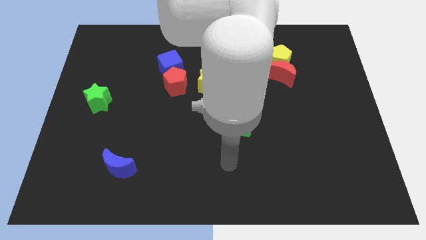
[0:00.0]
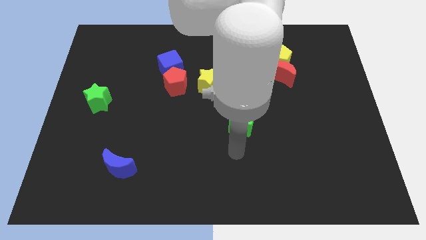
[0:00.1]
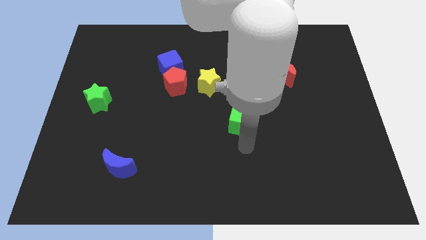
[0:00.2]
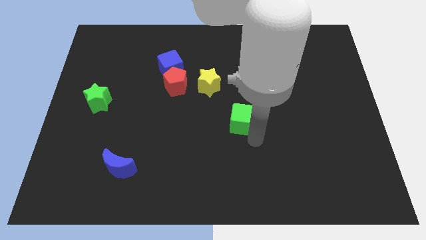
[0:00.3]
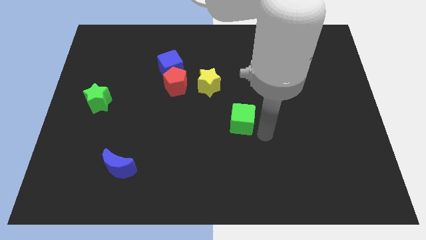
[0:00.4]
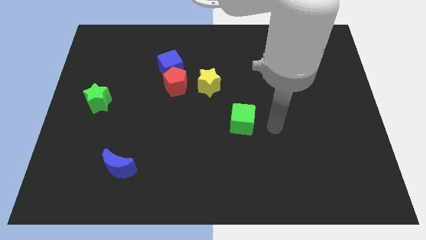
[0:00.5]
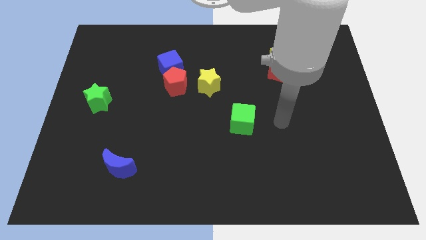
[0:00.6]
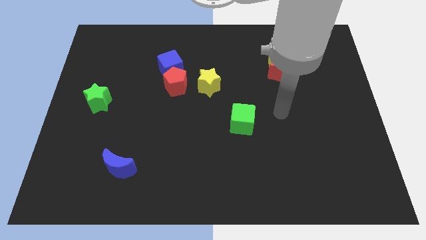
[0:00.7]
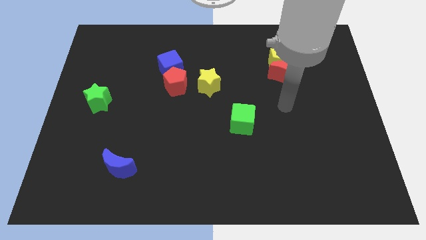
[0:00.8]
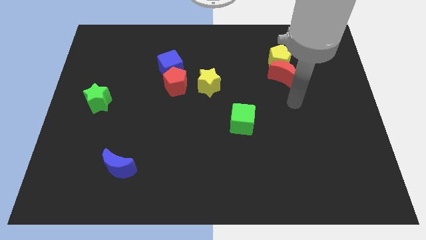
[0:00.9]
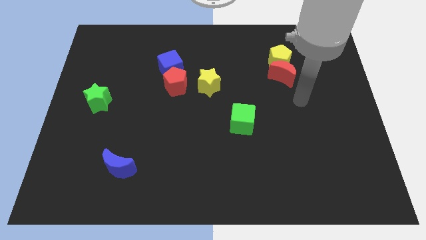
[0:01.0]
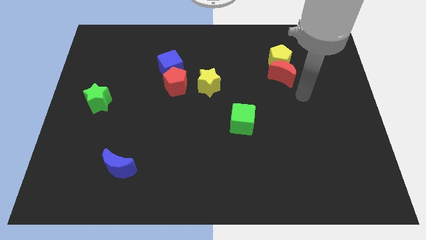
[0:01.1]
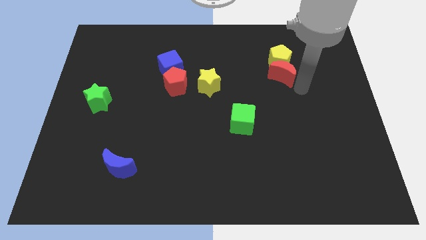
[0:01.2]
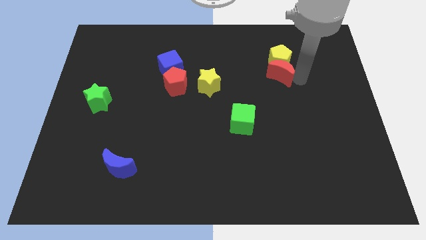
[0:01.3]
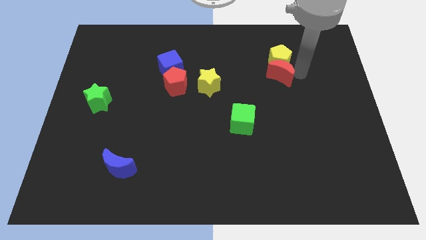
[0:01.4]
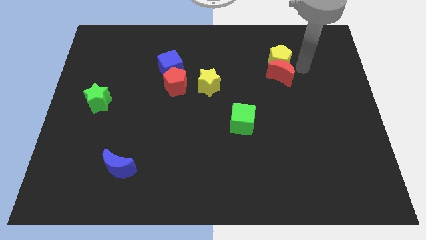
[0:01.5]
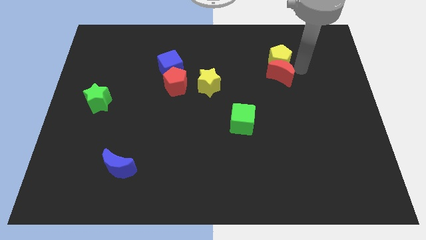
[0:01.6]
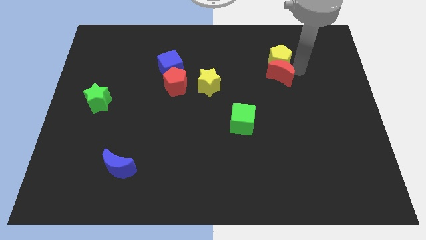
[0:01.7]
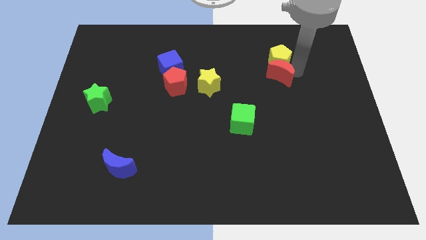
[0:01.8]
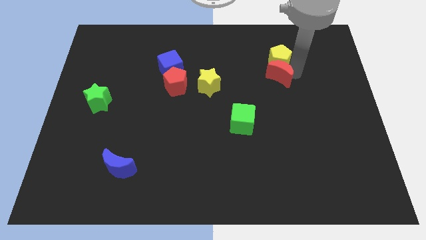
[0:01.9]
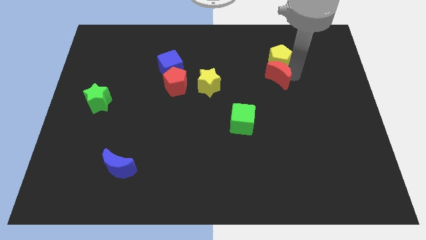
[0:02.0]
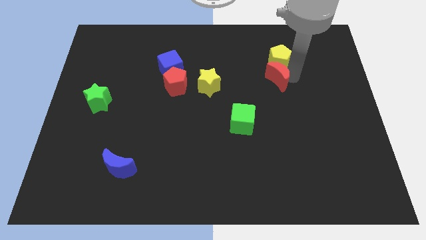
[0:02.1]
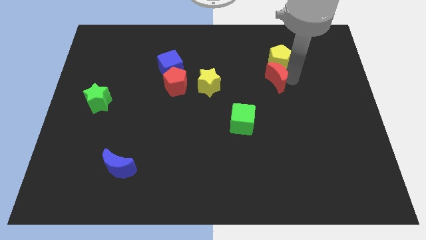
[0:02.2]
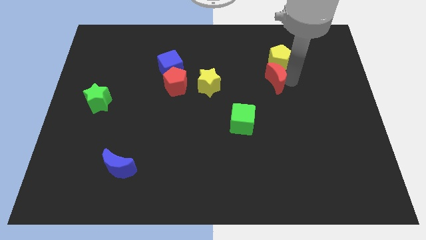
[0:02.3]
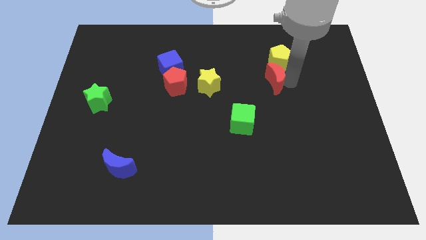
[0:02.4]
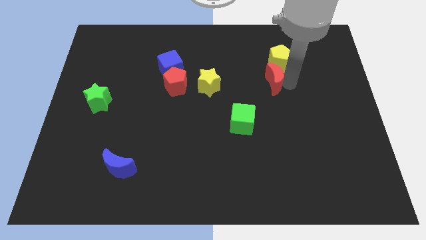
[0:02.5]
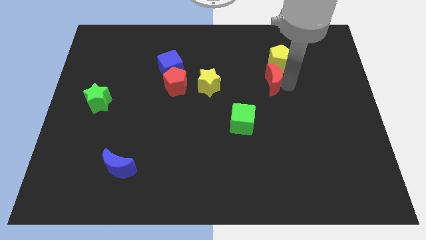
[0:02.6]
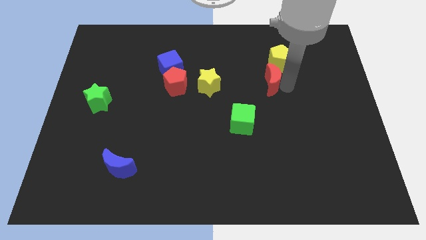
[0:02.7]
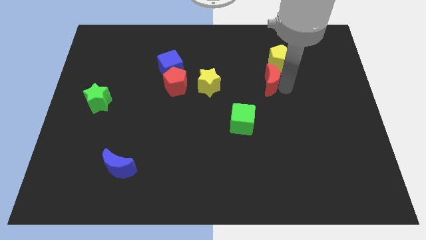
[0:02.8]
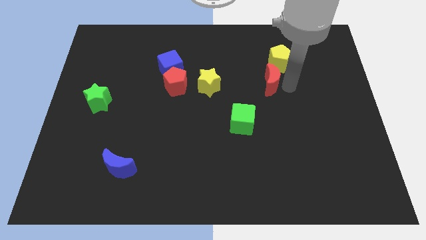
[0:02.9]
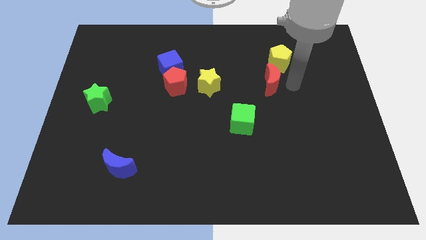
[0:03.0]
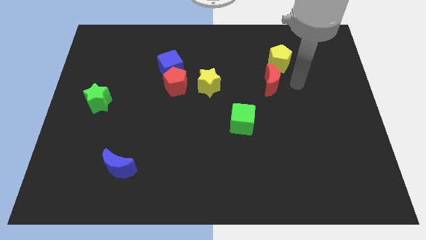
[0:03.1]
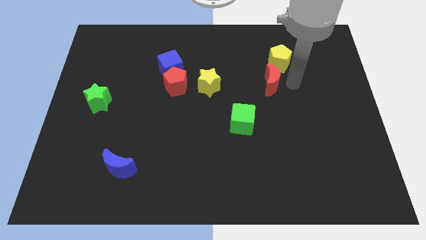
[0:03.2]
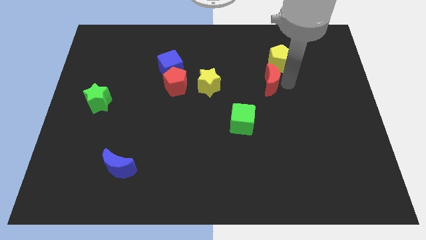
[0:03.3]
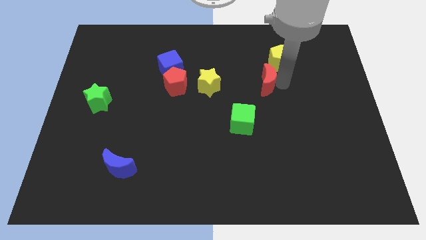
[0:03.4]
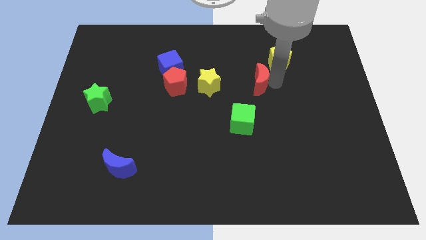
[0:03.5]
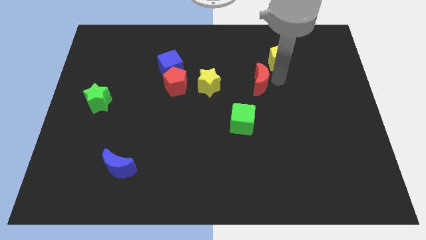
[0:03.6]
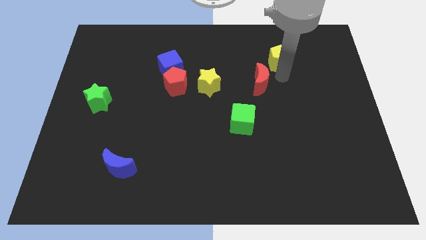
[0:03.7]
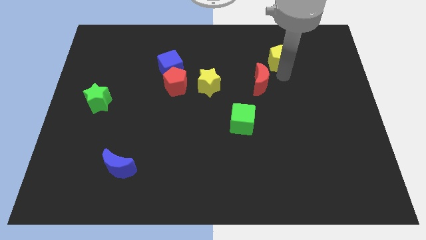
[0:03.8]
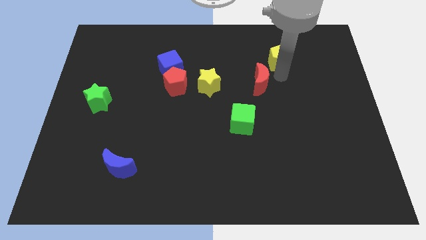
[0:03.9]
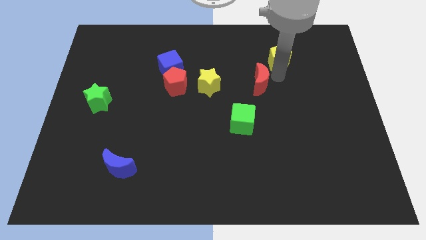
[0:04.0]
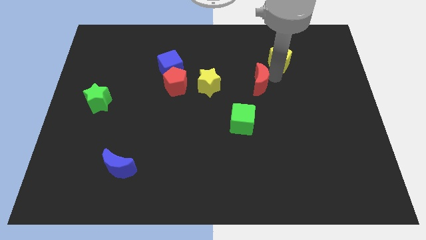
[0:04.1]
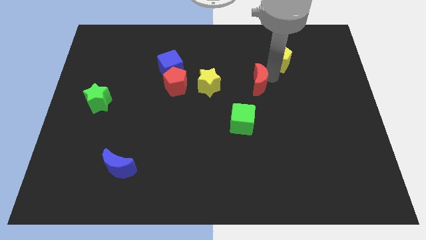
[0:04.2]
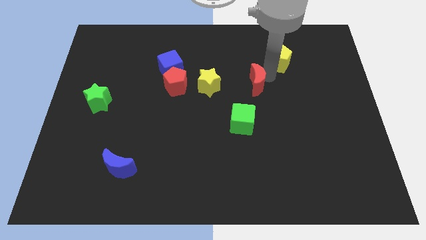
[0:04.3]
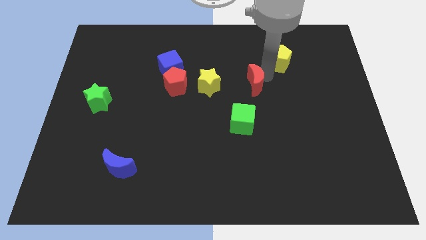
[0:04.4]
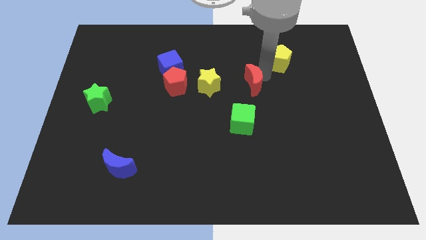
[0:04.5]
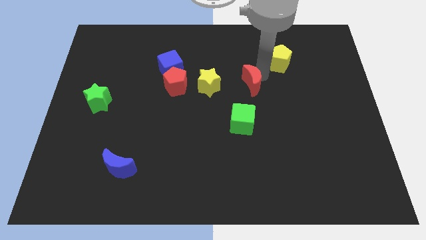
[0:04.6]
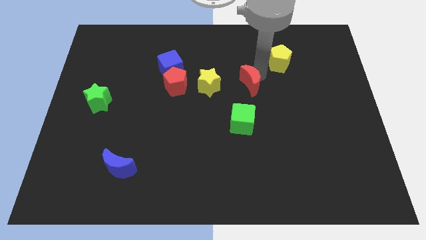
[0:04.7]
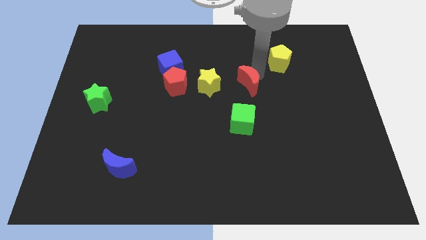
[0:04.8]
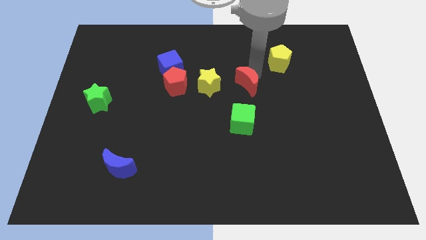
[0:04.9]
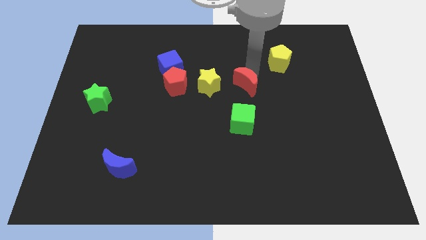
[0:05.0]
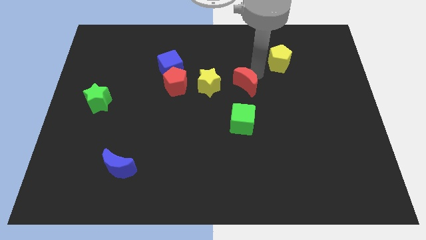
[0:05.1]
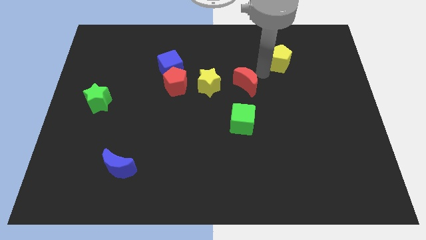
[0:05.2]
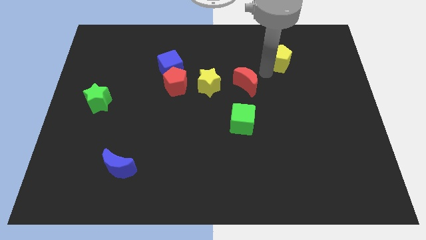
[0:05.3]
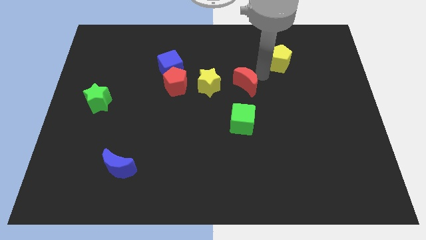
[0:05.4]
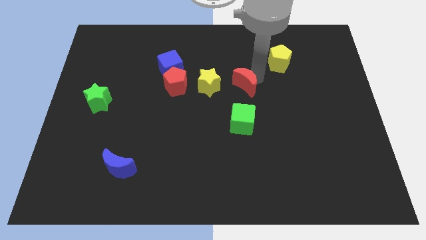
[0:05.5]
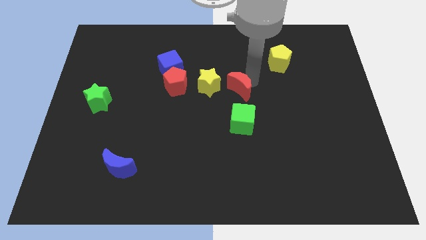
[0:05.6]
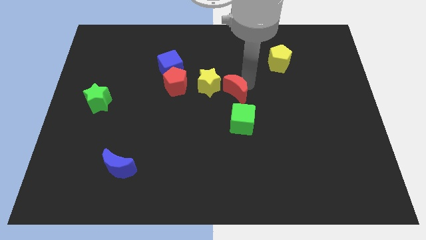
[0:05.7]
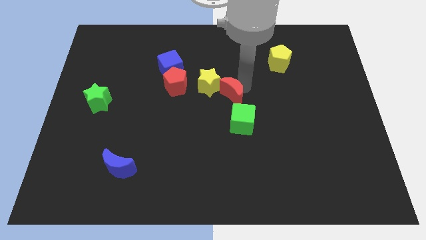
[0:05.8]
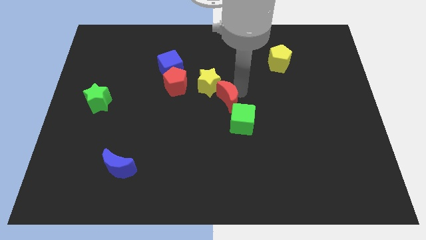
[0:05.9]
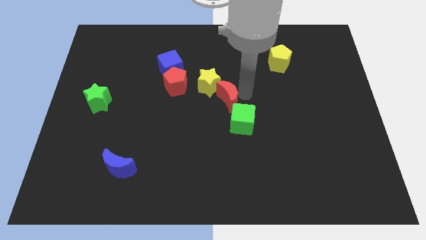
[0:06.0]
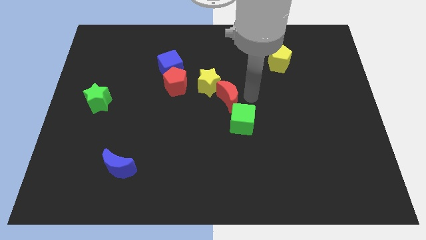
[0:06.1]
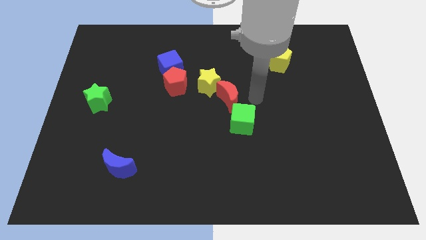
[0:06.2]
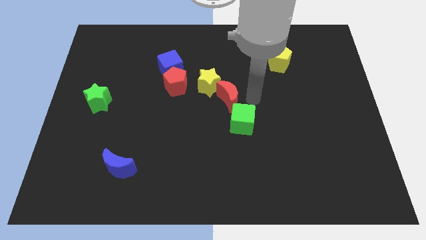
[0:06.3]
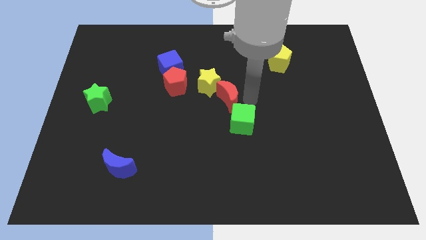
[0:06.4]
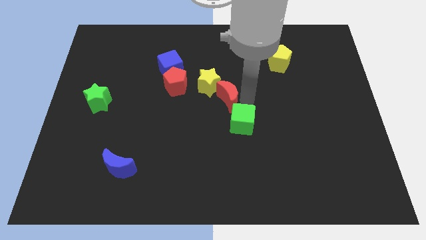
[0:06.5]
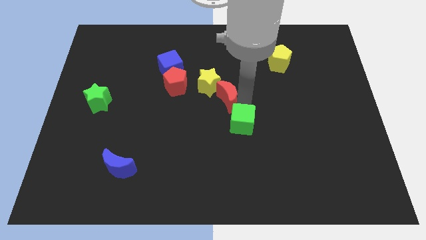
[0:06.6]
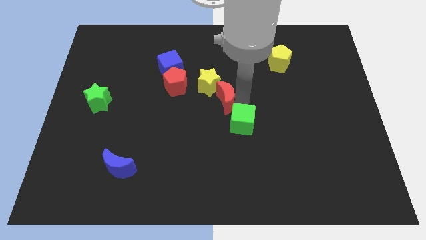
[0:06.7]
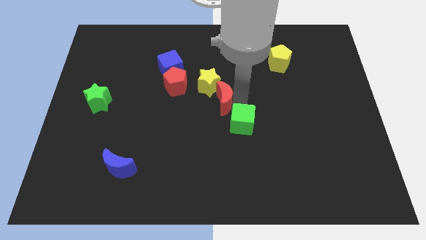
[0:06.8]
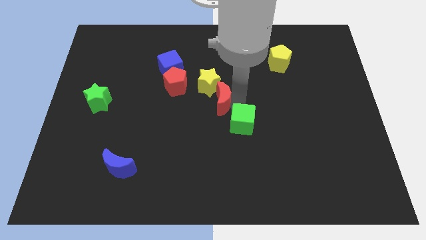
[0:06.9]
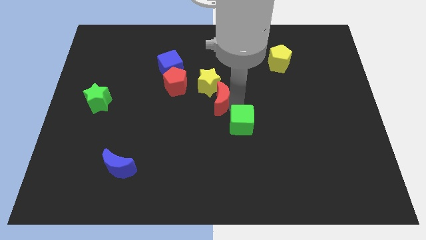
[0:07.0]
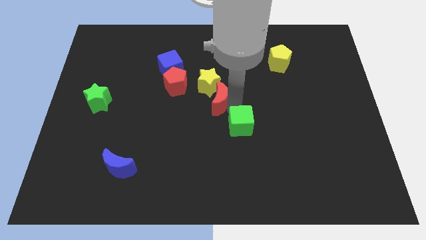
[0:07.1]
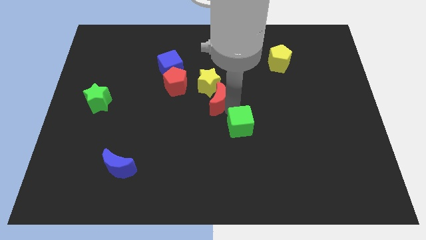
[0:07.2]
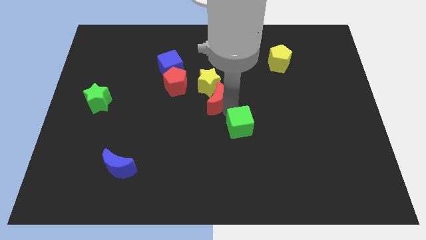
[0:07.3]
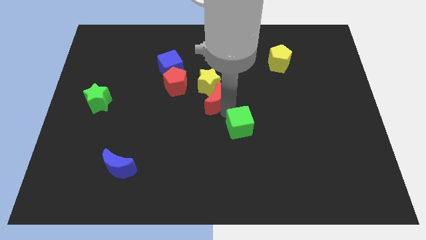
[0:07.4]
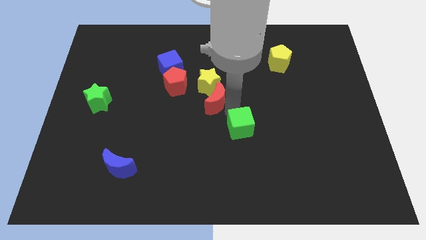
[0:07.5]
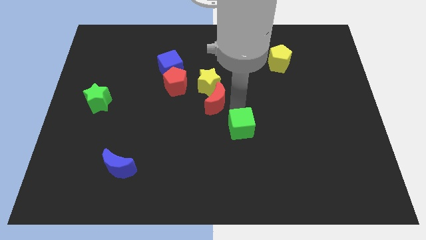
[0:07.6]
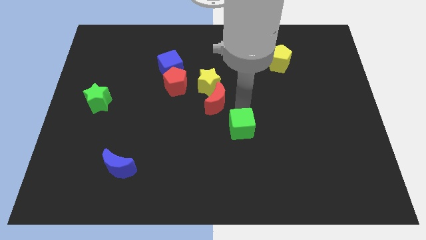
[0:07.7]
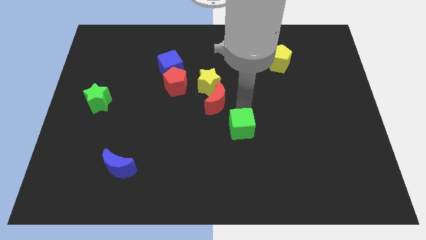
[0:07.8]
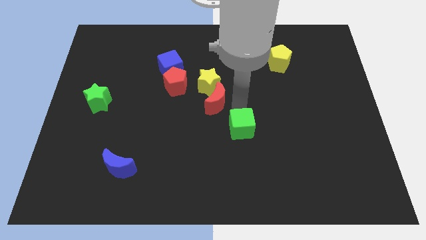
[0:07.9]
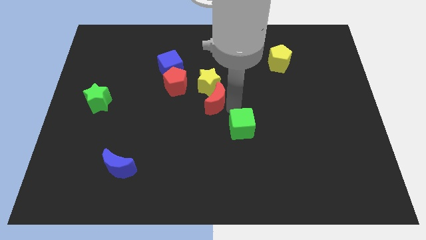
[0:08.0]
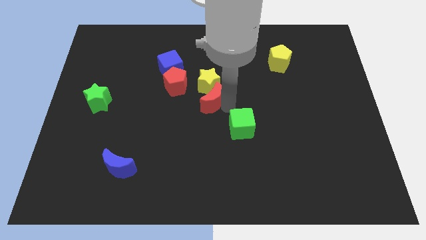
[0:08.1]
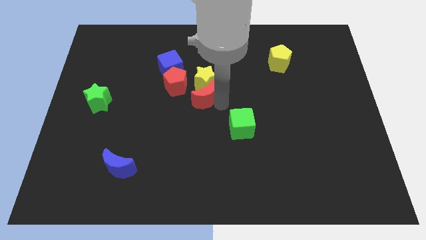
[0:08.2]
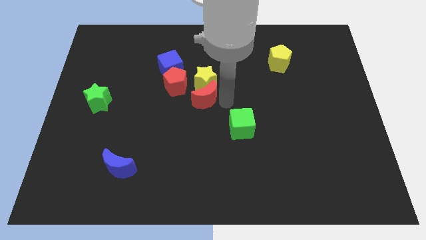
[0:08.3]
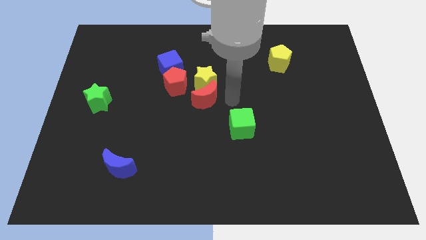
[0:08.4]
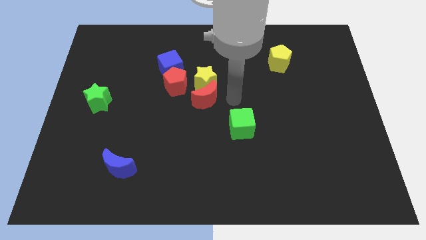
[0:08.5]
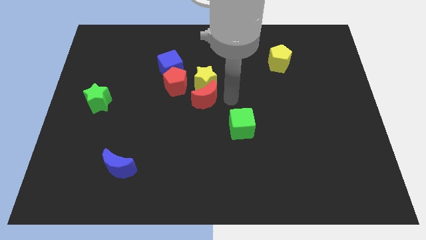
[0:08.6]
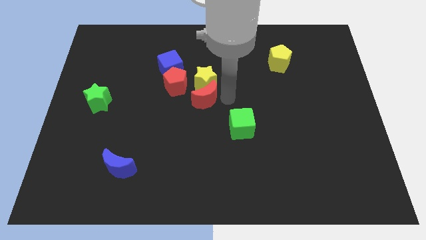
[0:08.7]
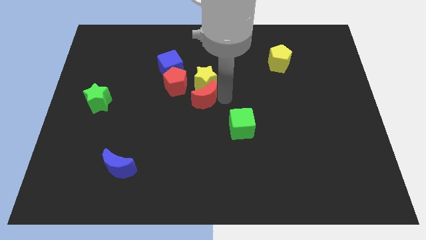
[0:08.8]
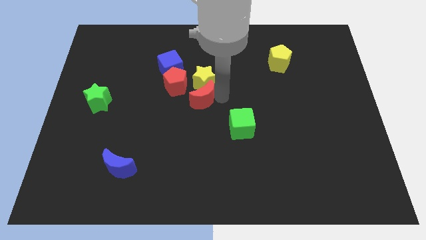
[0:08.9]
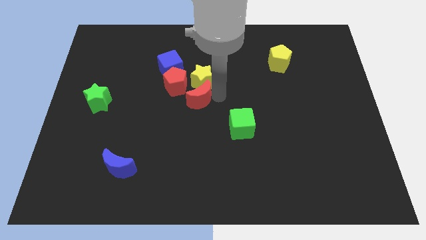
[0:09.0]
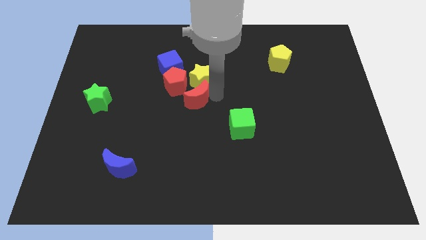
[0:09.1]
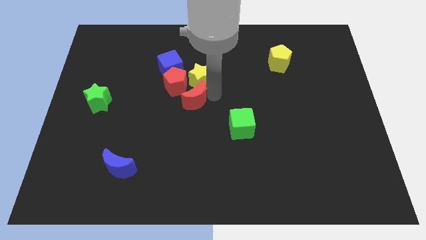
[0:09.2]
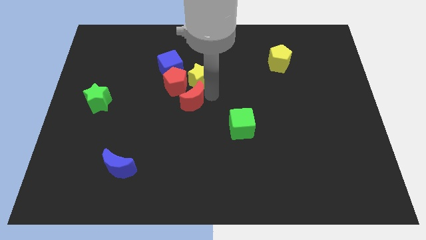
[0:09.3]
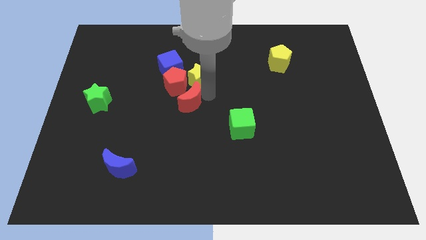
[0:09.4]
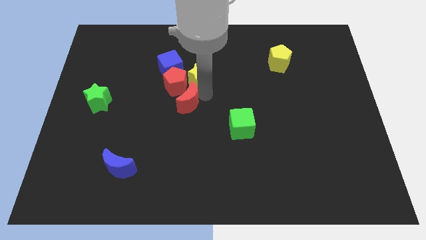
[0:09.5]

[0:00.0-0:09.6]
slide the red moon left
